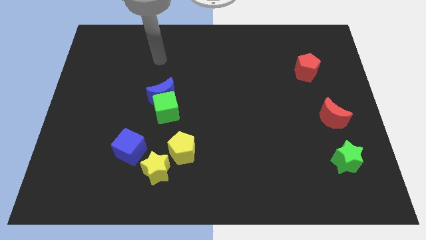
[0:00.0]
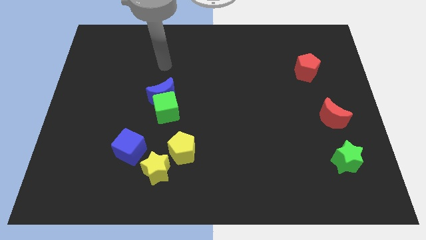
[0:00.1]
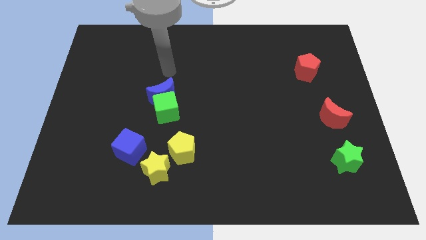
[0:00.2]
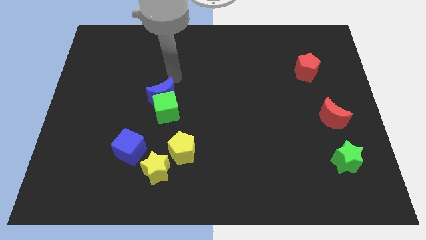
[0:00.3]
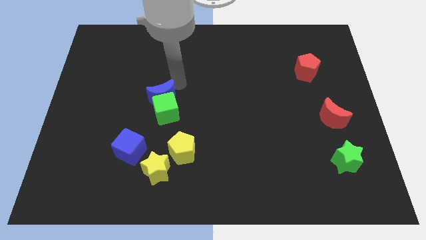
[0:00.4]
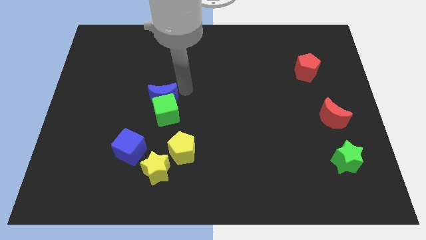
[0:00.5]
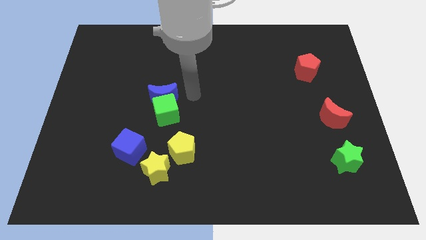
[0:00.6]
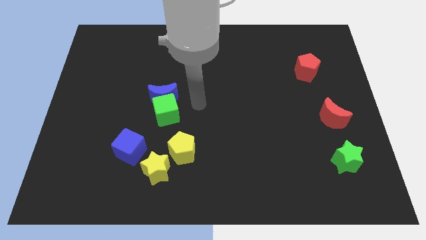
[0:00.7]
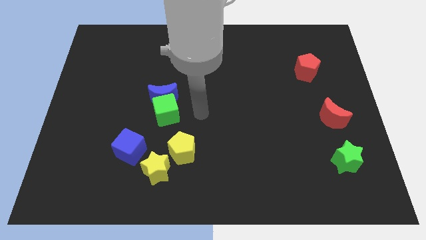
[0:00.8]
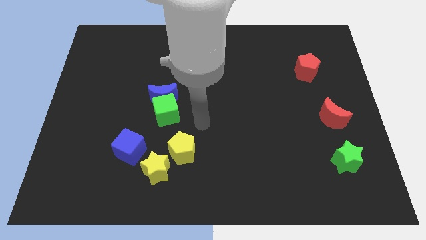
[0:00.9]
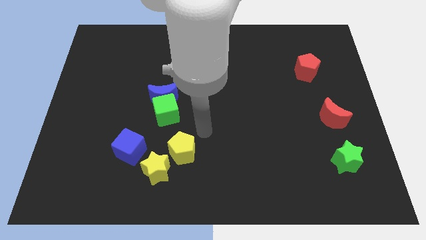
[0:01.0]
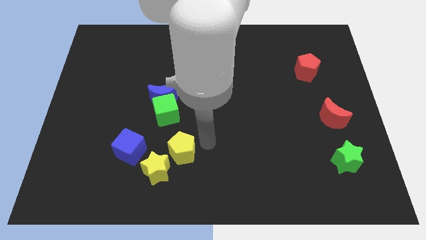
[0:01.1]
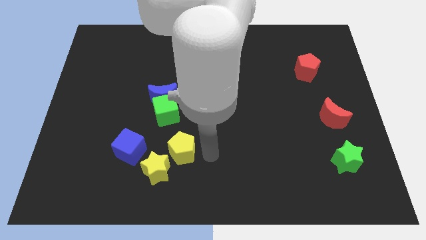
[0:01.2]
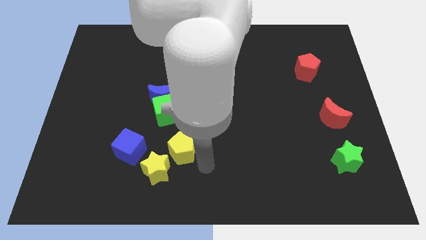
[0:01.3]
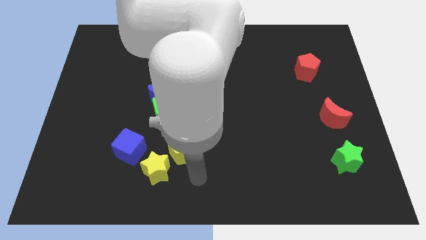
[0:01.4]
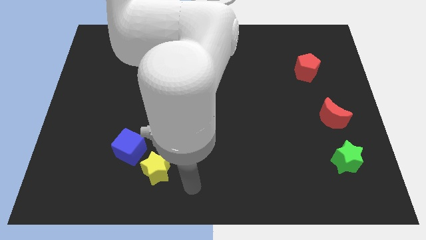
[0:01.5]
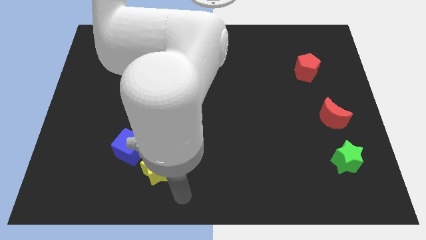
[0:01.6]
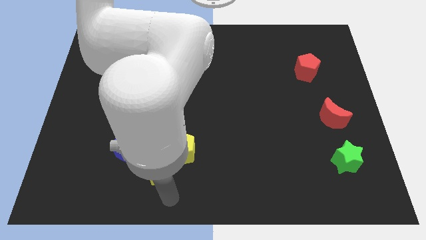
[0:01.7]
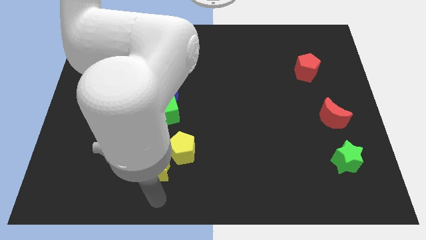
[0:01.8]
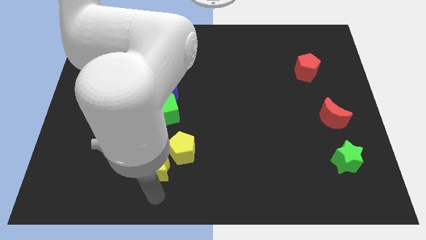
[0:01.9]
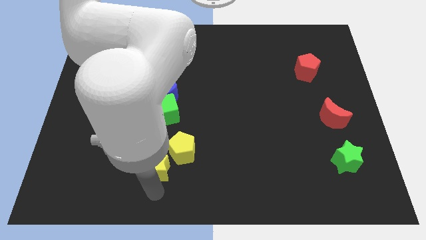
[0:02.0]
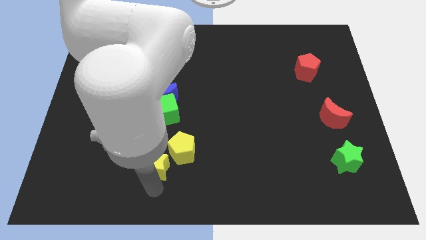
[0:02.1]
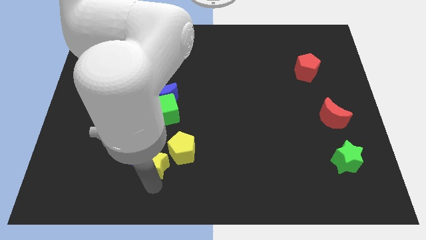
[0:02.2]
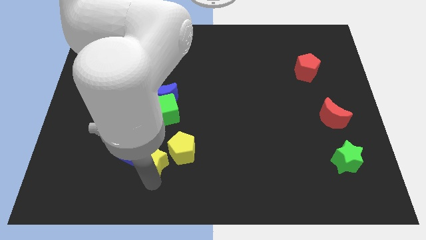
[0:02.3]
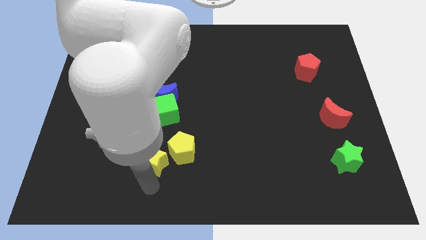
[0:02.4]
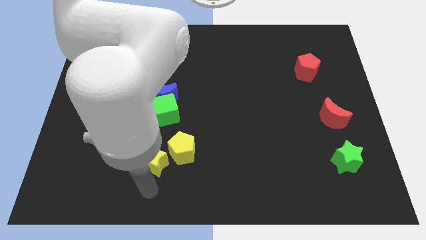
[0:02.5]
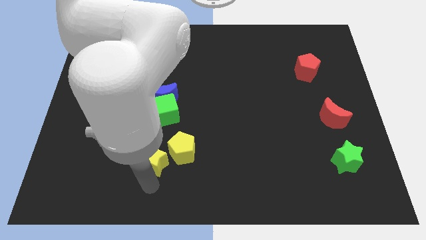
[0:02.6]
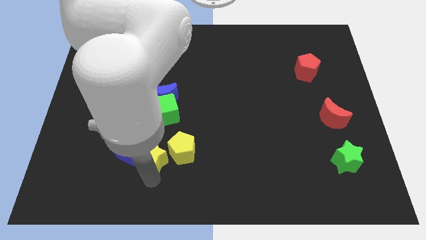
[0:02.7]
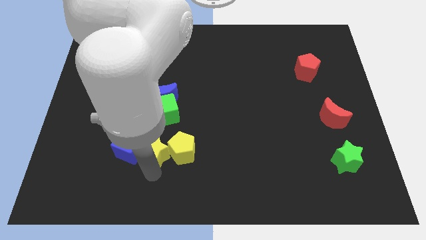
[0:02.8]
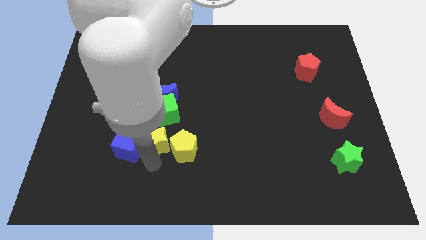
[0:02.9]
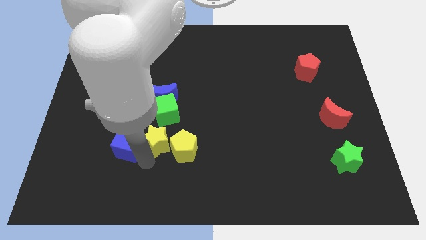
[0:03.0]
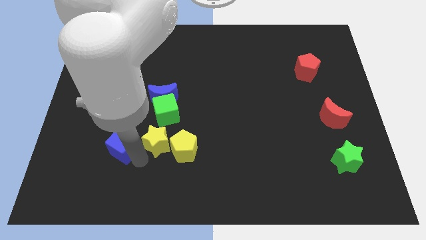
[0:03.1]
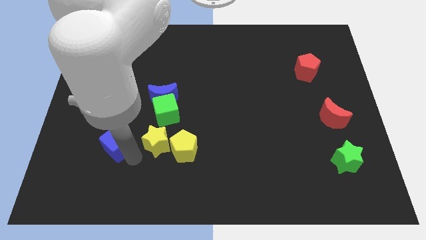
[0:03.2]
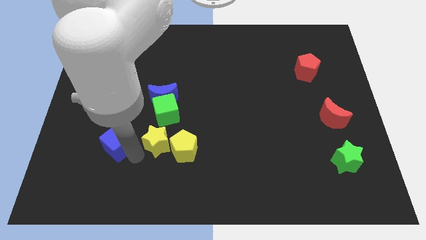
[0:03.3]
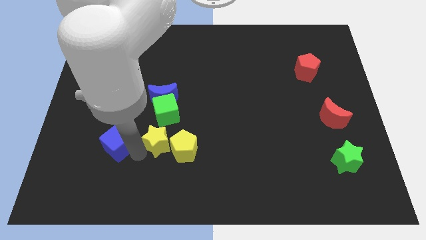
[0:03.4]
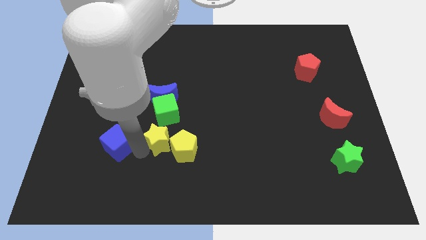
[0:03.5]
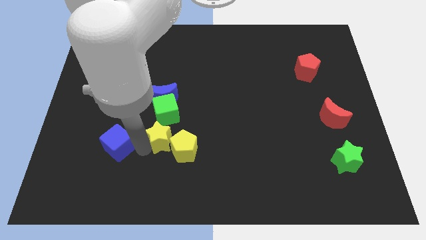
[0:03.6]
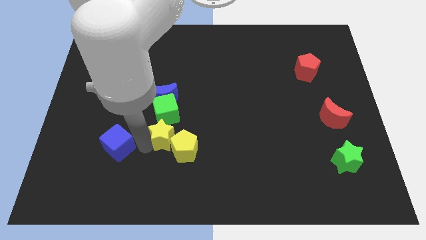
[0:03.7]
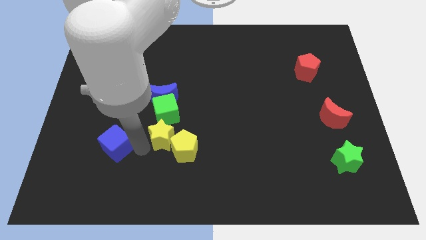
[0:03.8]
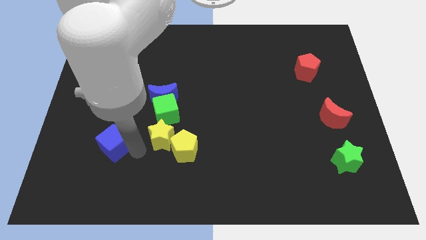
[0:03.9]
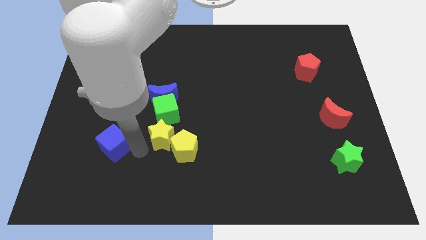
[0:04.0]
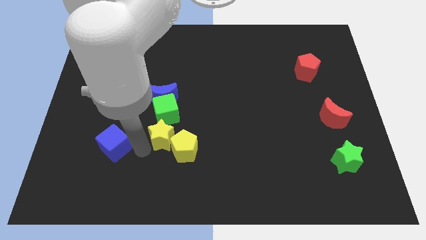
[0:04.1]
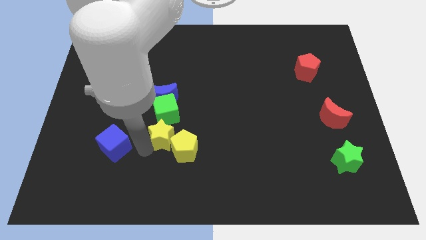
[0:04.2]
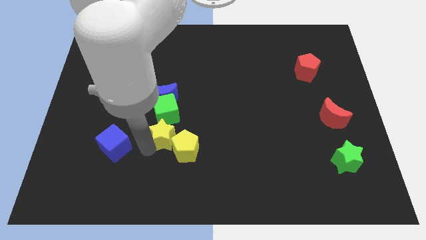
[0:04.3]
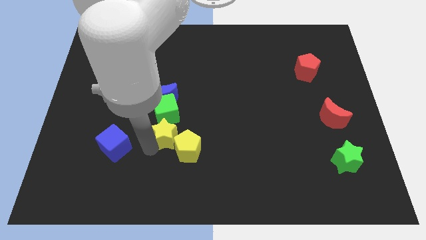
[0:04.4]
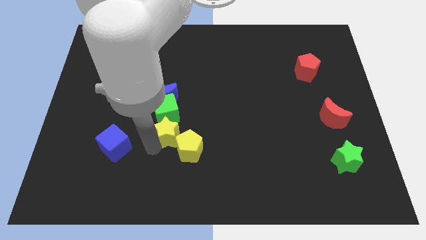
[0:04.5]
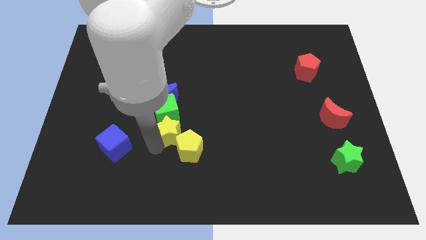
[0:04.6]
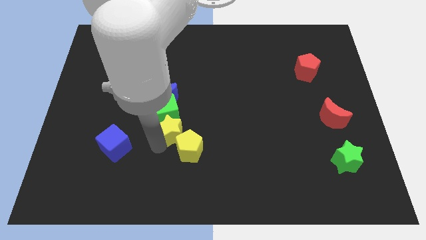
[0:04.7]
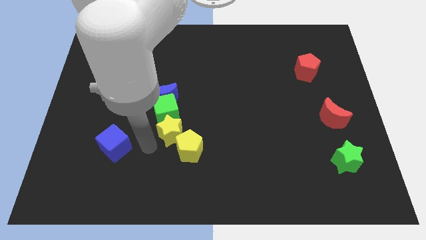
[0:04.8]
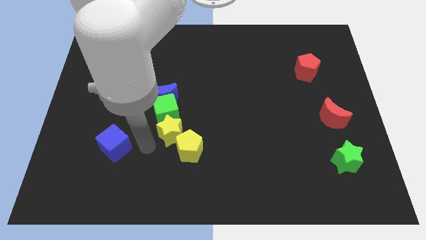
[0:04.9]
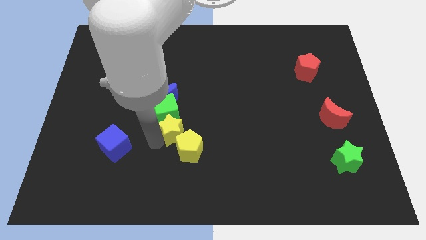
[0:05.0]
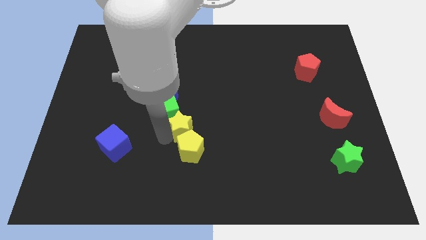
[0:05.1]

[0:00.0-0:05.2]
put the yellow star just right of the green cube

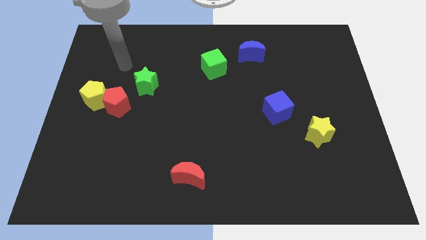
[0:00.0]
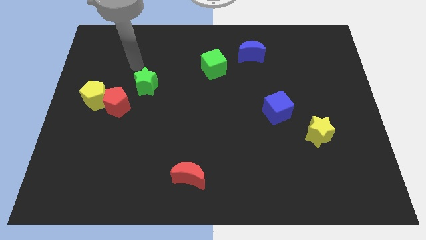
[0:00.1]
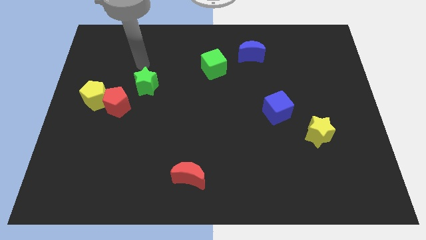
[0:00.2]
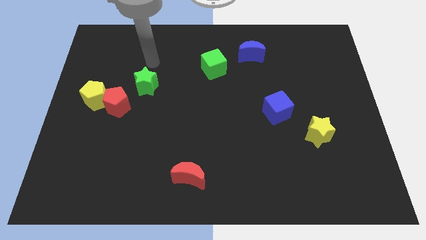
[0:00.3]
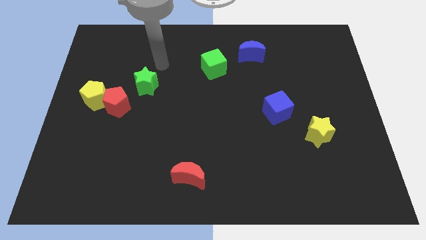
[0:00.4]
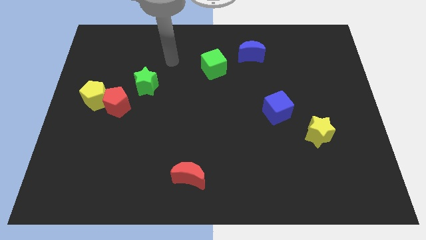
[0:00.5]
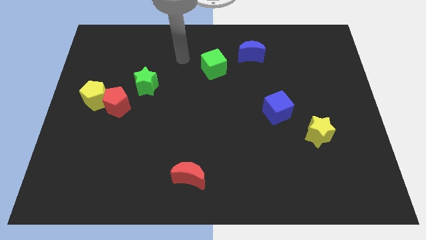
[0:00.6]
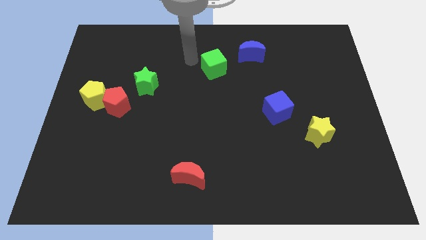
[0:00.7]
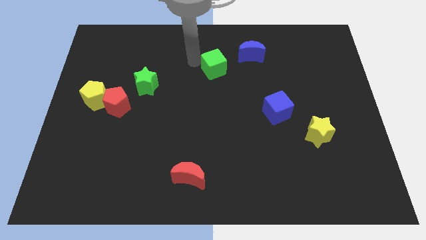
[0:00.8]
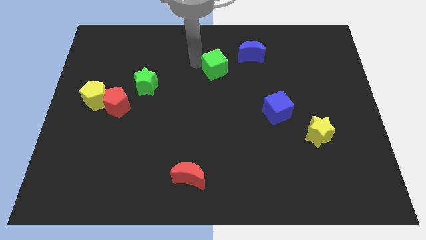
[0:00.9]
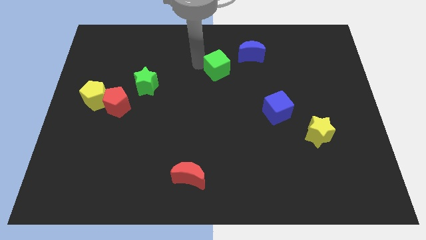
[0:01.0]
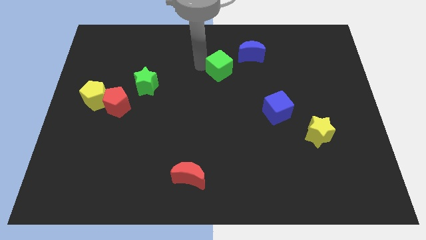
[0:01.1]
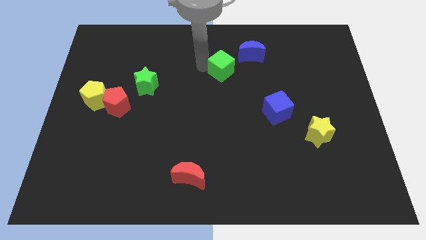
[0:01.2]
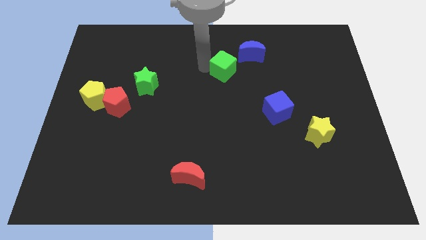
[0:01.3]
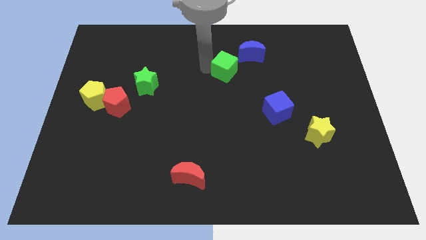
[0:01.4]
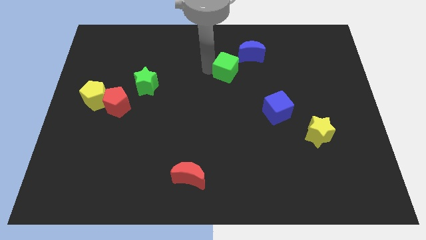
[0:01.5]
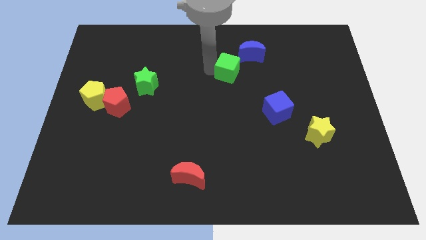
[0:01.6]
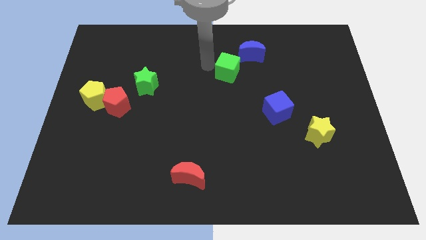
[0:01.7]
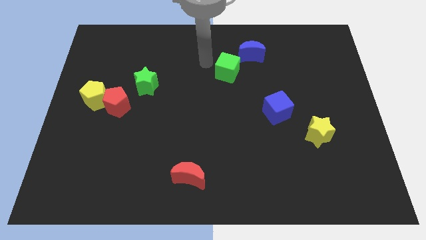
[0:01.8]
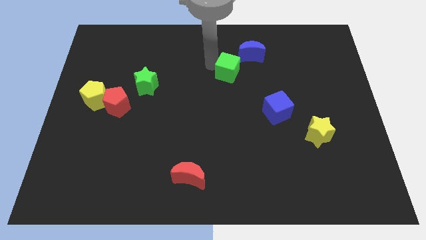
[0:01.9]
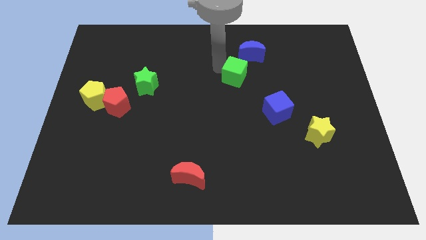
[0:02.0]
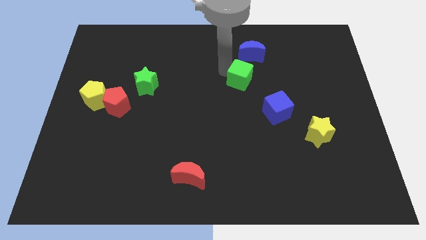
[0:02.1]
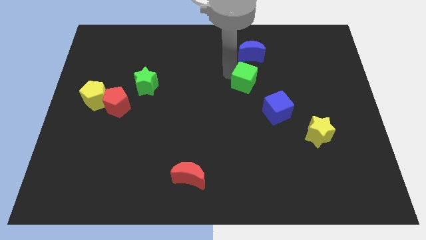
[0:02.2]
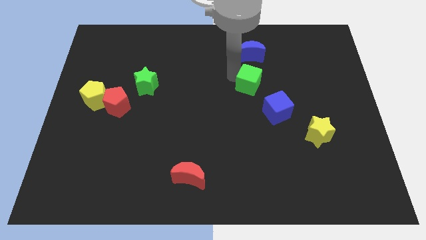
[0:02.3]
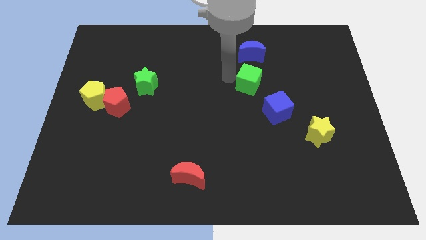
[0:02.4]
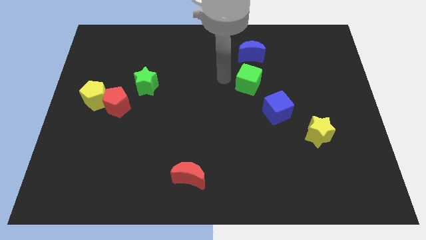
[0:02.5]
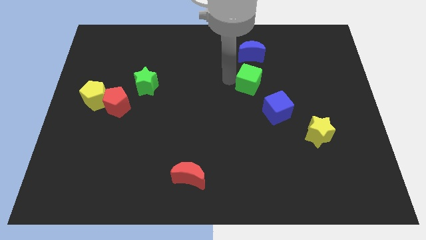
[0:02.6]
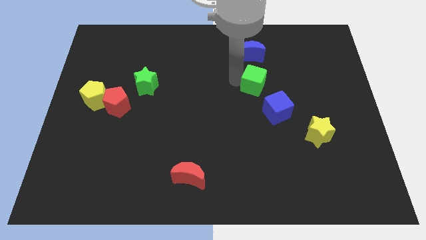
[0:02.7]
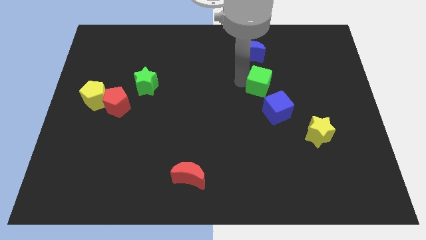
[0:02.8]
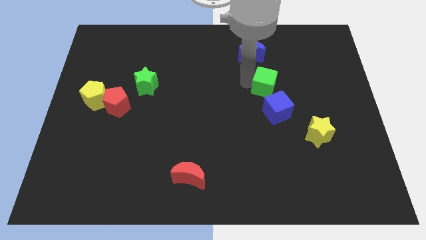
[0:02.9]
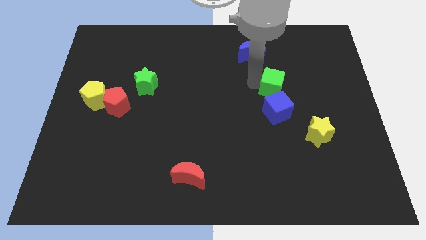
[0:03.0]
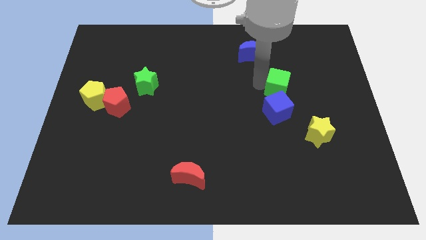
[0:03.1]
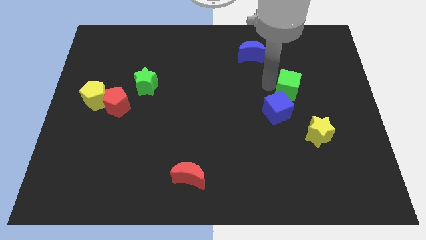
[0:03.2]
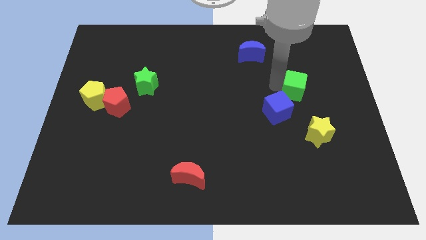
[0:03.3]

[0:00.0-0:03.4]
move the green cube to the top side of the yellow star
